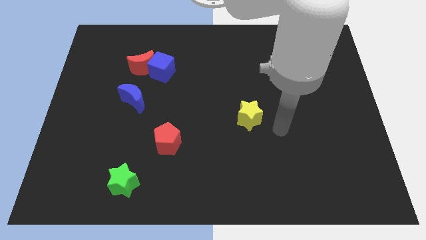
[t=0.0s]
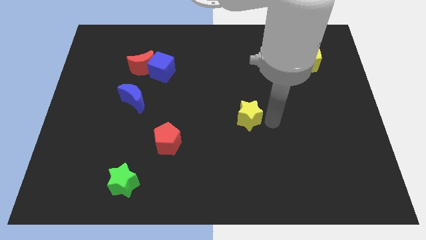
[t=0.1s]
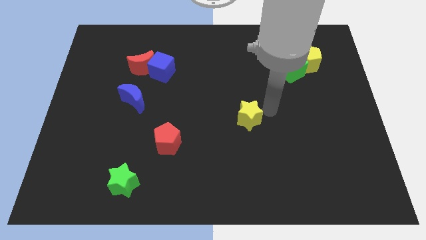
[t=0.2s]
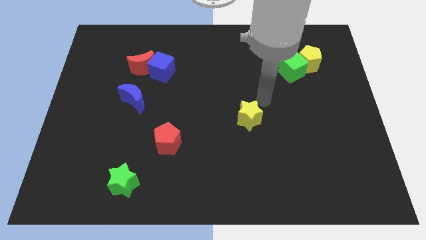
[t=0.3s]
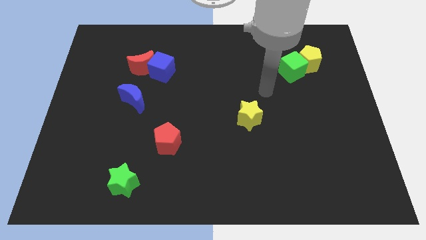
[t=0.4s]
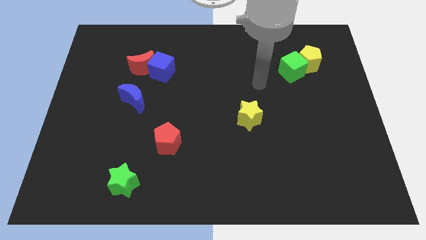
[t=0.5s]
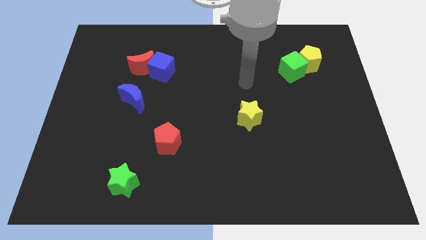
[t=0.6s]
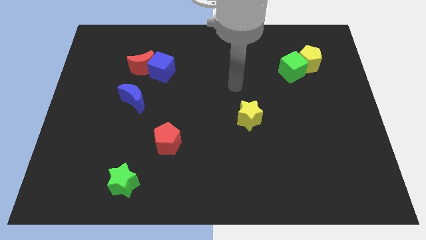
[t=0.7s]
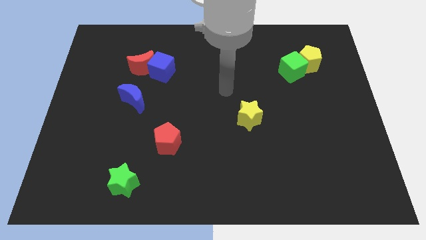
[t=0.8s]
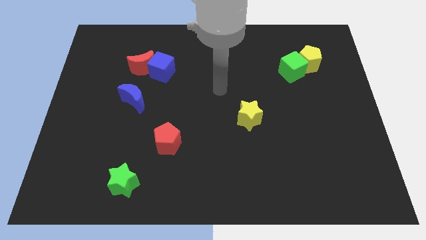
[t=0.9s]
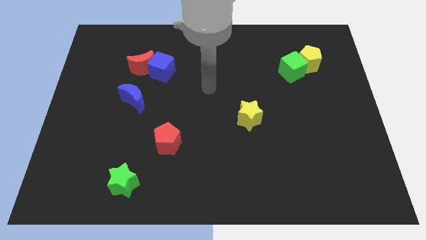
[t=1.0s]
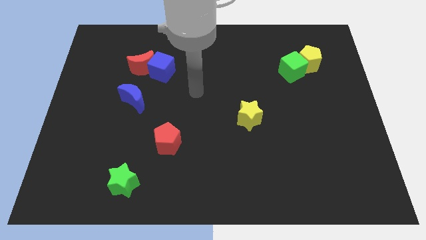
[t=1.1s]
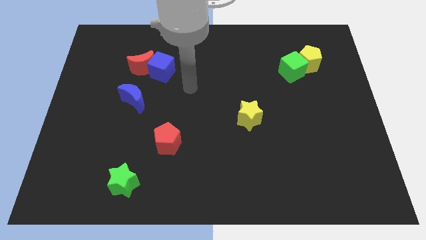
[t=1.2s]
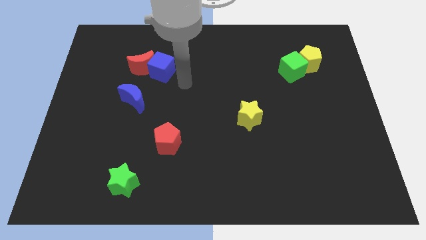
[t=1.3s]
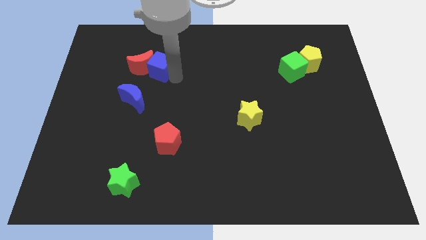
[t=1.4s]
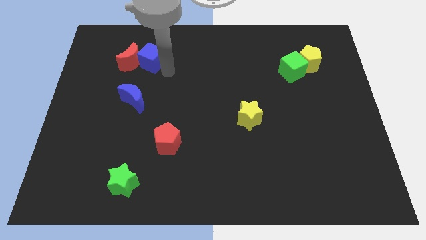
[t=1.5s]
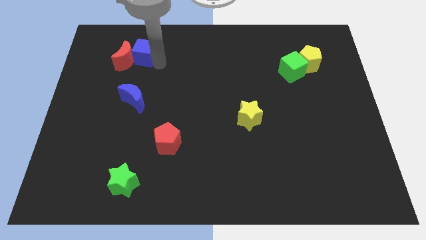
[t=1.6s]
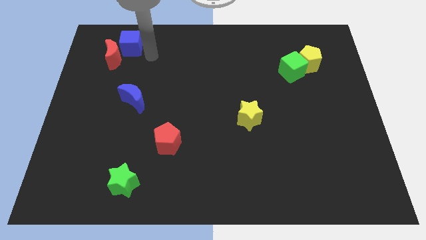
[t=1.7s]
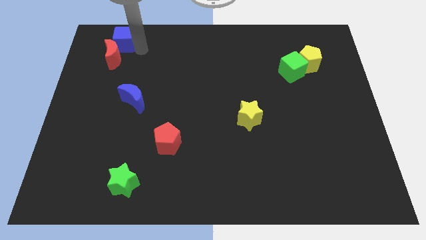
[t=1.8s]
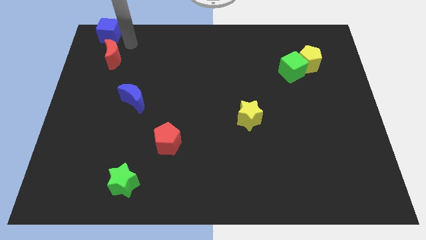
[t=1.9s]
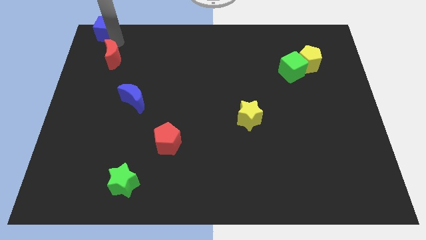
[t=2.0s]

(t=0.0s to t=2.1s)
pull the red moon apart from the blue cube

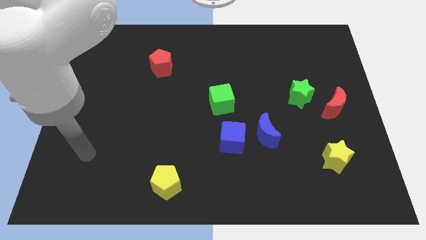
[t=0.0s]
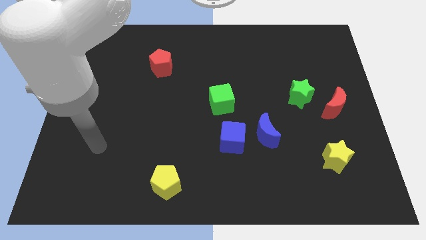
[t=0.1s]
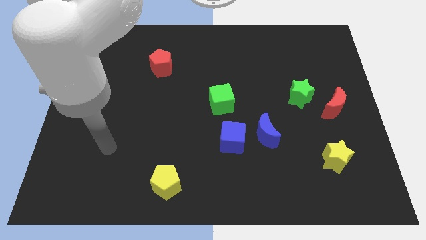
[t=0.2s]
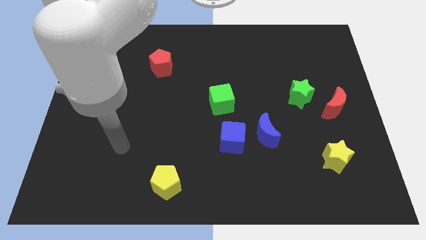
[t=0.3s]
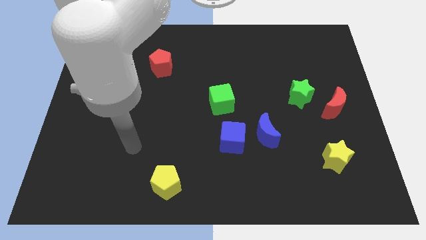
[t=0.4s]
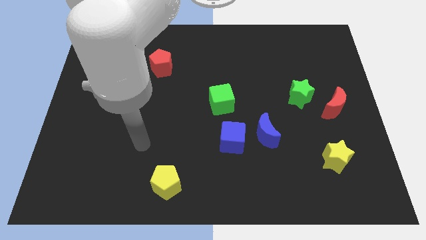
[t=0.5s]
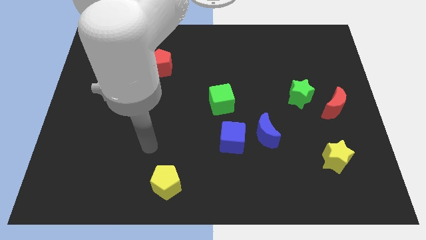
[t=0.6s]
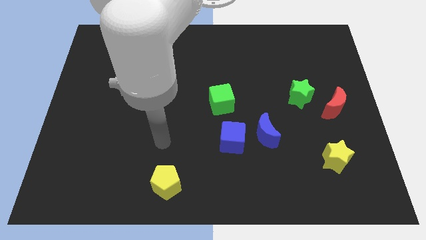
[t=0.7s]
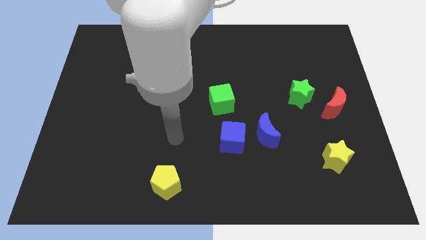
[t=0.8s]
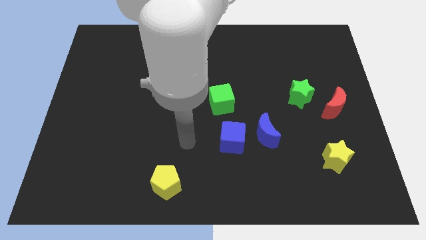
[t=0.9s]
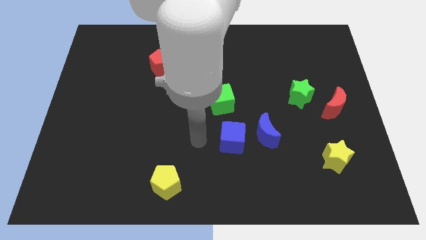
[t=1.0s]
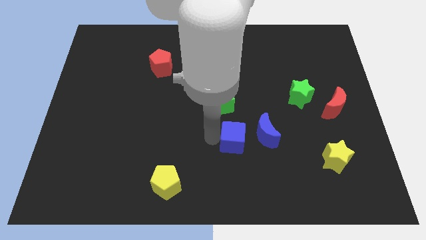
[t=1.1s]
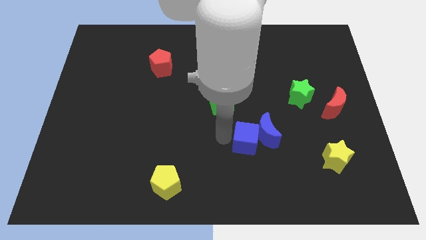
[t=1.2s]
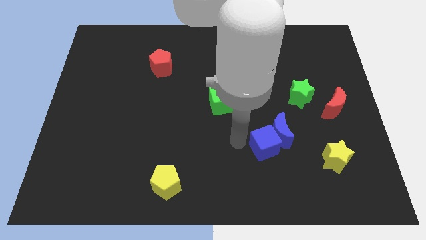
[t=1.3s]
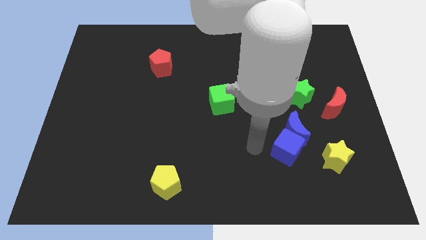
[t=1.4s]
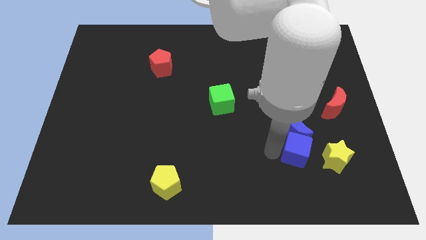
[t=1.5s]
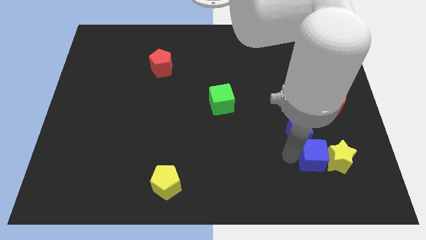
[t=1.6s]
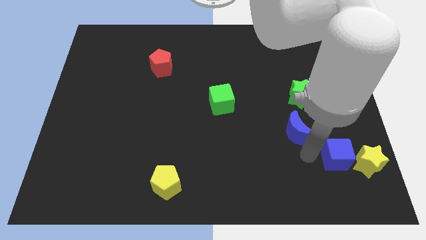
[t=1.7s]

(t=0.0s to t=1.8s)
separate the blue moon from the blue cube

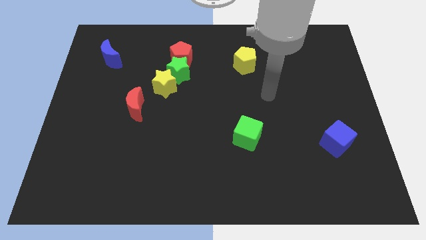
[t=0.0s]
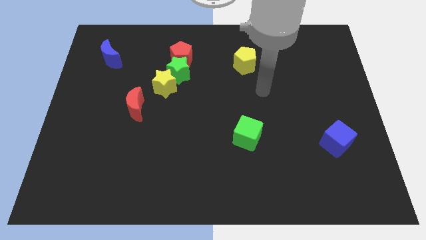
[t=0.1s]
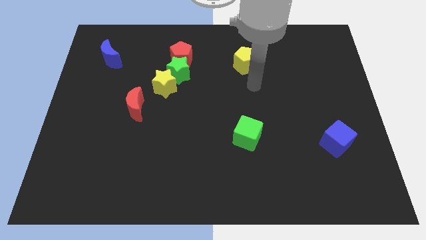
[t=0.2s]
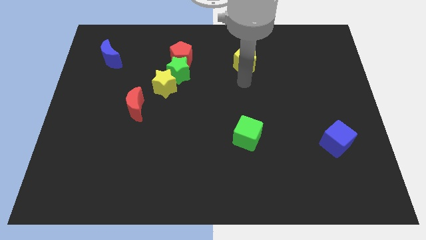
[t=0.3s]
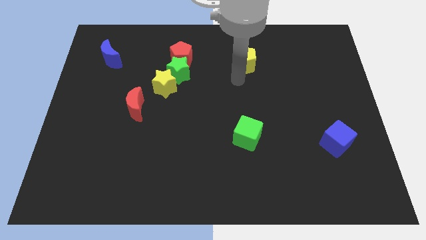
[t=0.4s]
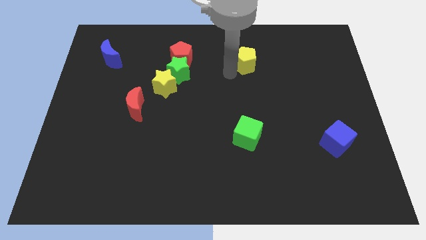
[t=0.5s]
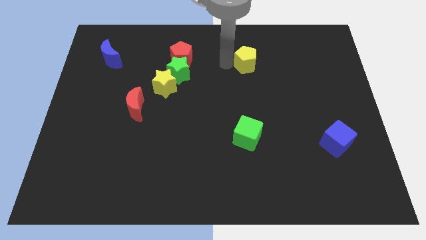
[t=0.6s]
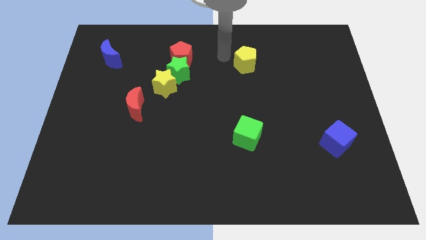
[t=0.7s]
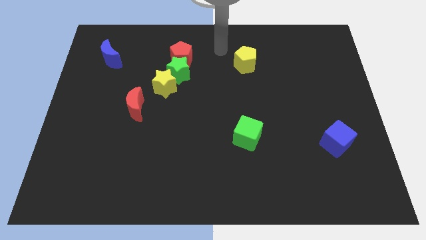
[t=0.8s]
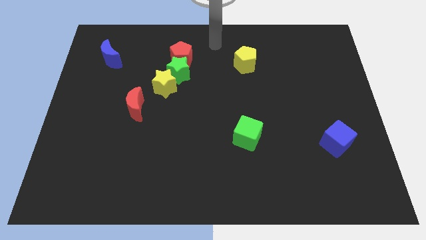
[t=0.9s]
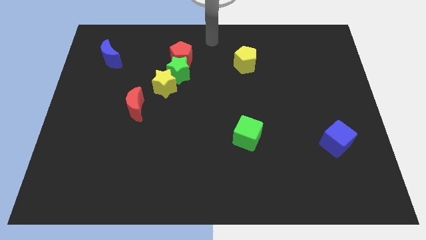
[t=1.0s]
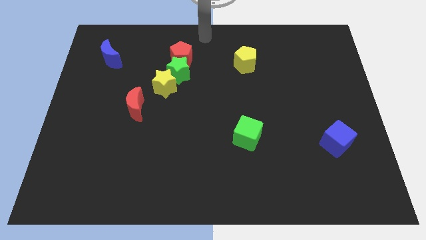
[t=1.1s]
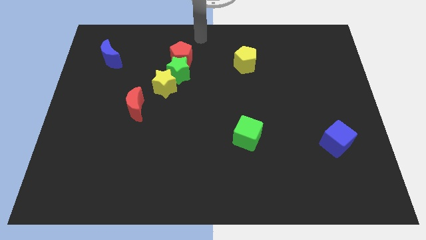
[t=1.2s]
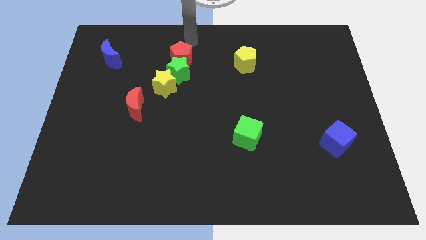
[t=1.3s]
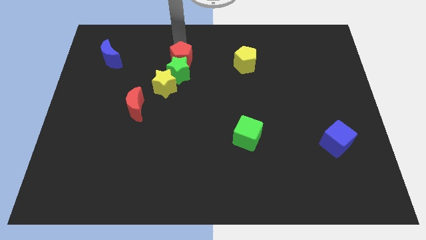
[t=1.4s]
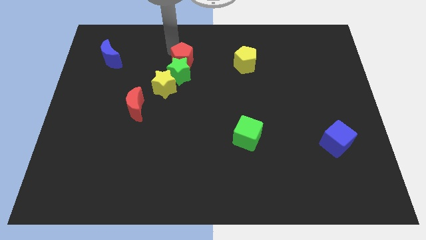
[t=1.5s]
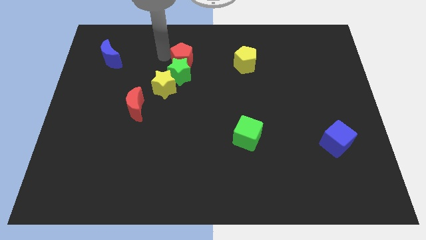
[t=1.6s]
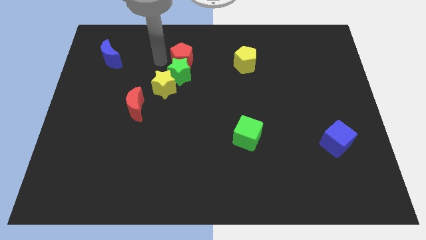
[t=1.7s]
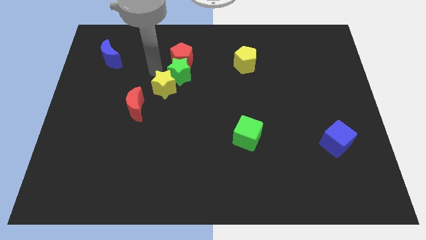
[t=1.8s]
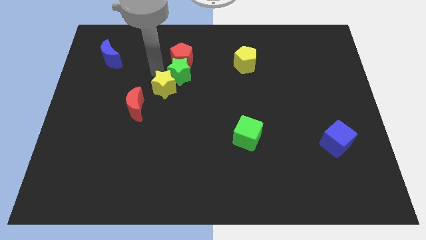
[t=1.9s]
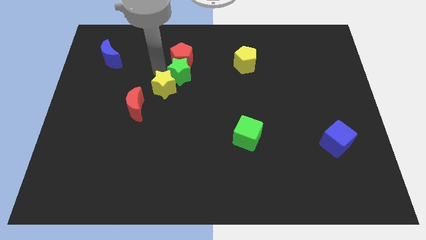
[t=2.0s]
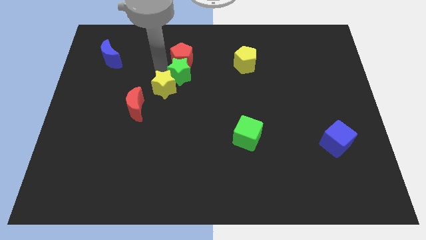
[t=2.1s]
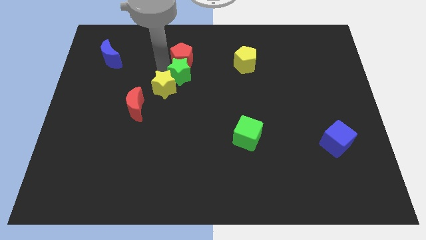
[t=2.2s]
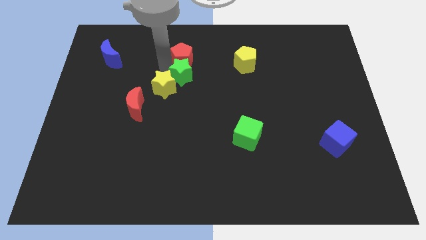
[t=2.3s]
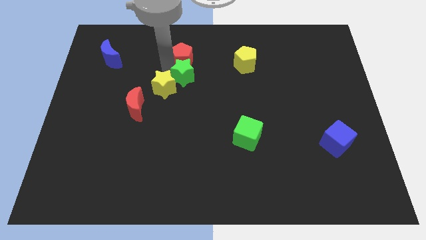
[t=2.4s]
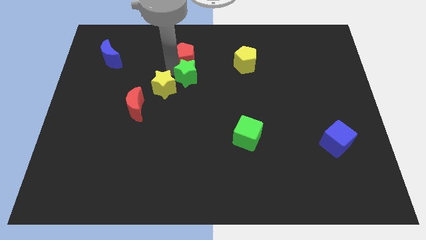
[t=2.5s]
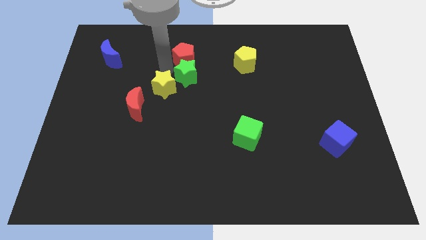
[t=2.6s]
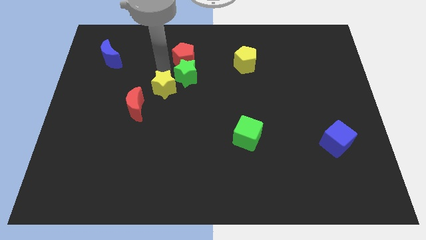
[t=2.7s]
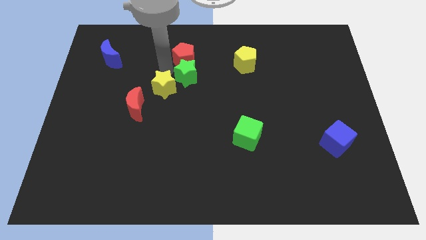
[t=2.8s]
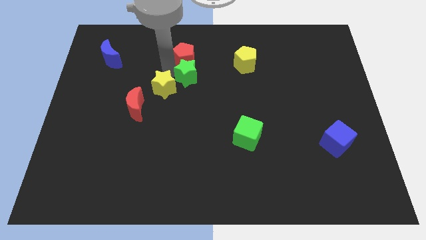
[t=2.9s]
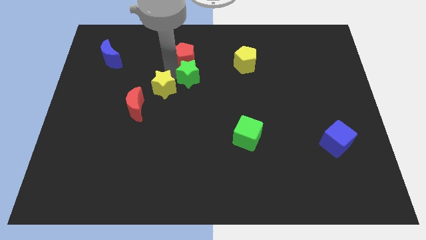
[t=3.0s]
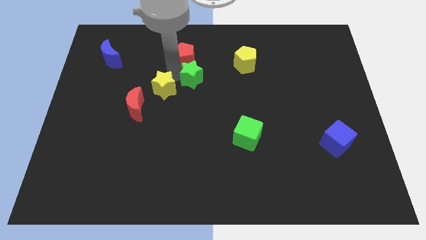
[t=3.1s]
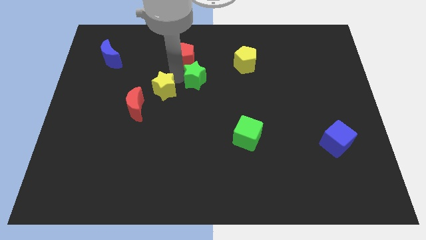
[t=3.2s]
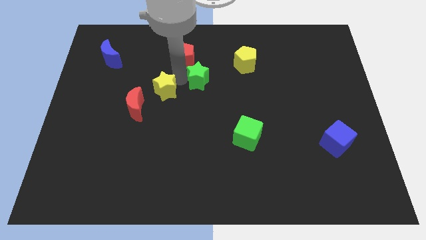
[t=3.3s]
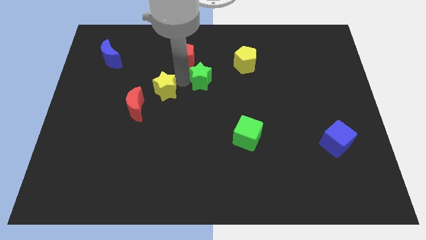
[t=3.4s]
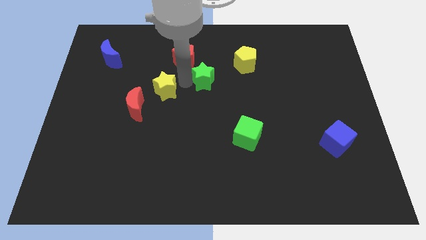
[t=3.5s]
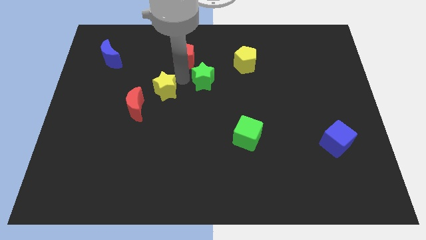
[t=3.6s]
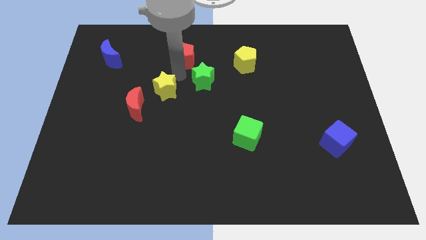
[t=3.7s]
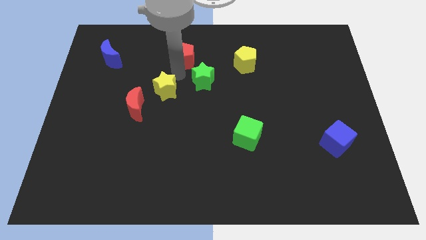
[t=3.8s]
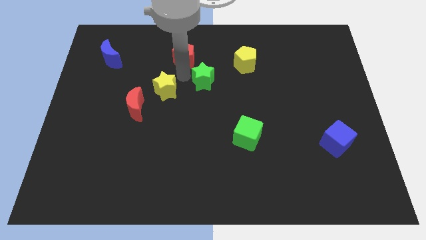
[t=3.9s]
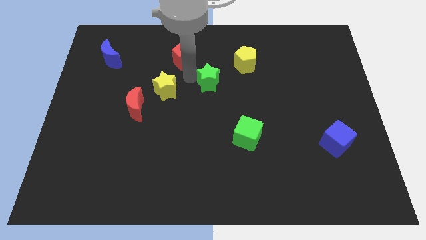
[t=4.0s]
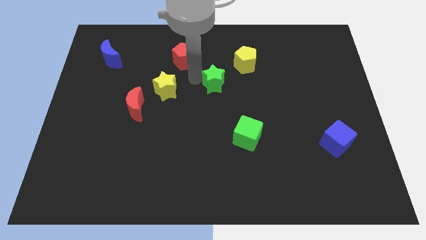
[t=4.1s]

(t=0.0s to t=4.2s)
pull the green star apart from the red pentagon and yellow star

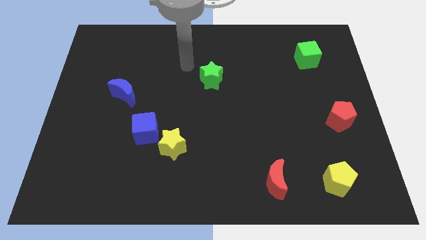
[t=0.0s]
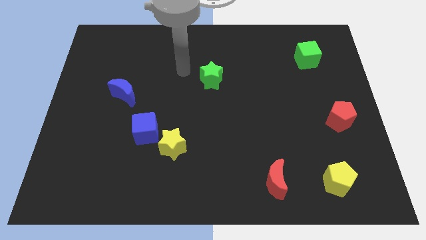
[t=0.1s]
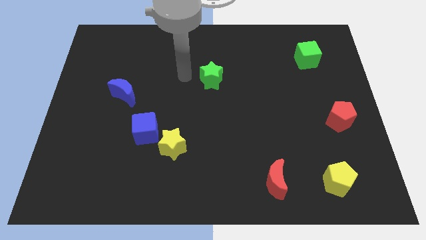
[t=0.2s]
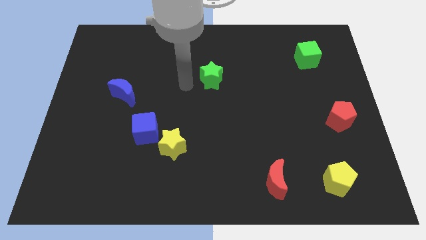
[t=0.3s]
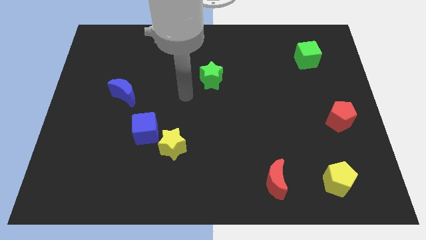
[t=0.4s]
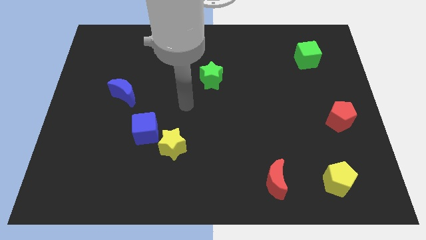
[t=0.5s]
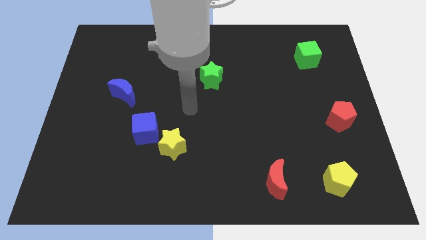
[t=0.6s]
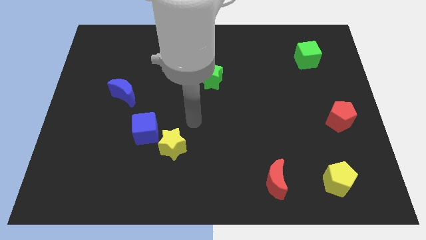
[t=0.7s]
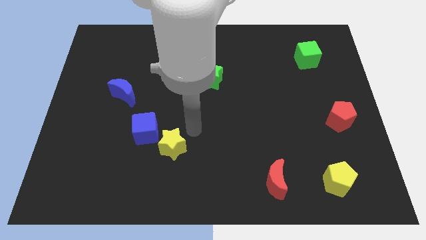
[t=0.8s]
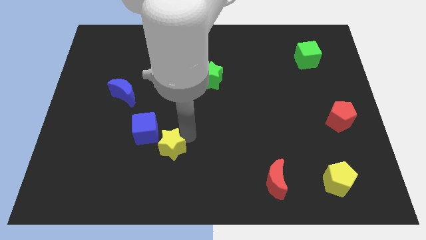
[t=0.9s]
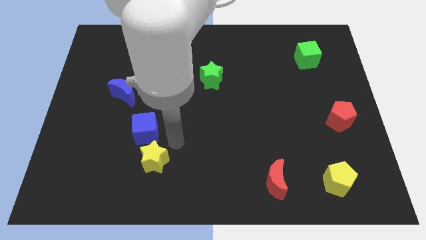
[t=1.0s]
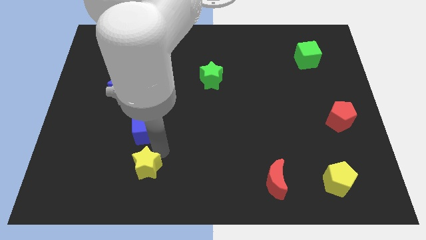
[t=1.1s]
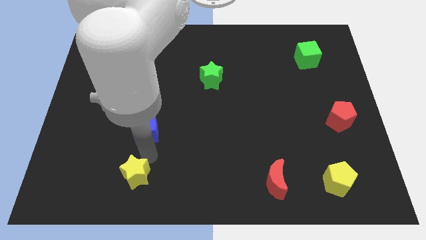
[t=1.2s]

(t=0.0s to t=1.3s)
pull the blue cube apart from the yellow star
